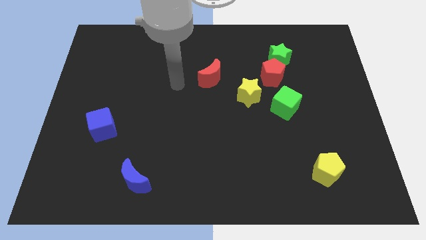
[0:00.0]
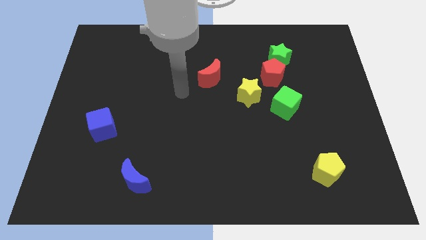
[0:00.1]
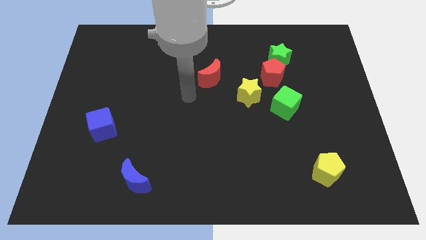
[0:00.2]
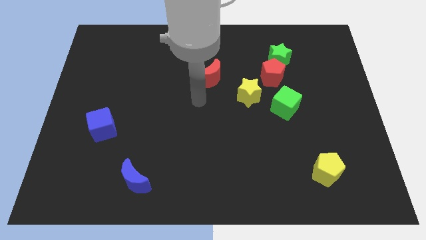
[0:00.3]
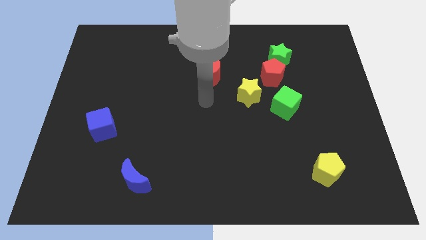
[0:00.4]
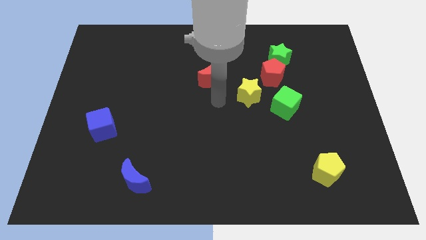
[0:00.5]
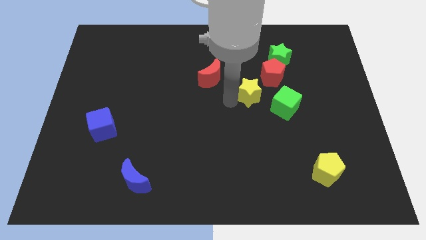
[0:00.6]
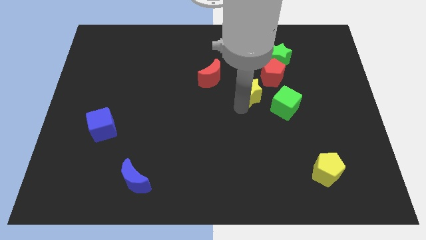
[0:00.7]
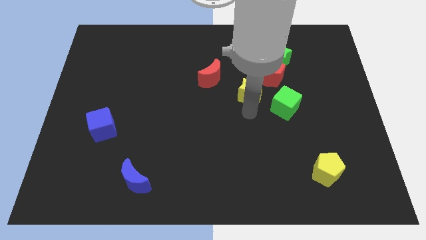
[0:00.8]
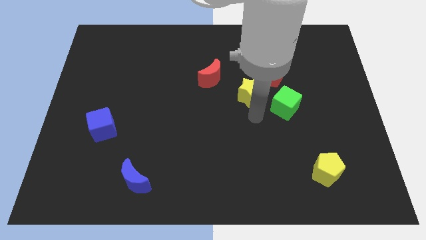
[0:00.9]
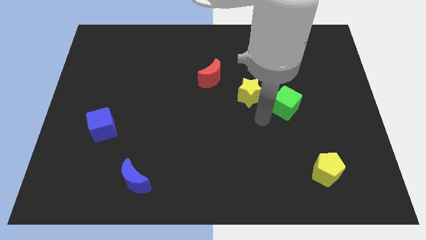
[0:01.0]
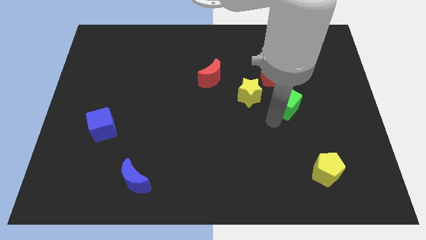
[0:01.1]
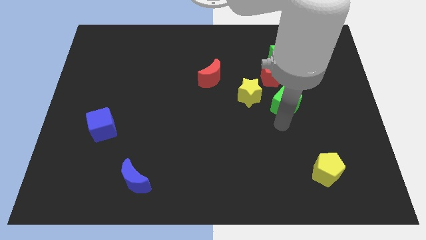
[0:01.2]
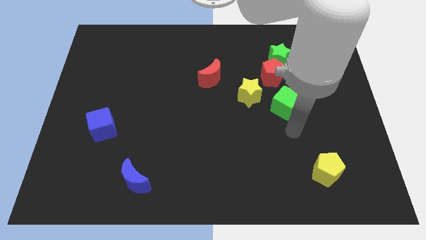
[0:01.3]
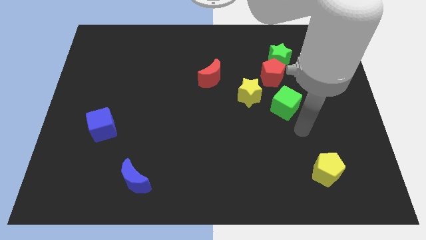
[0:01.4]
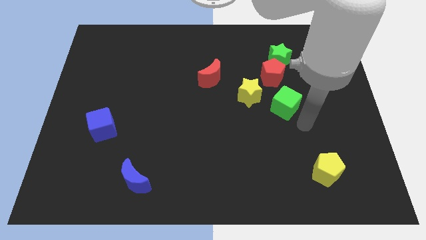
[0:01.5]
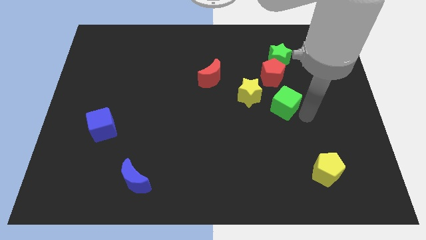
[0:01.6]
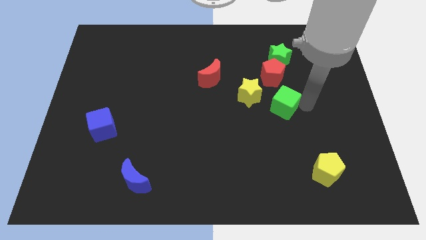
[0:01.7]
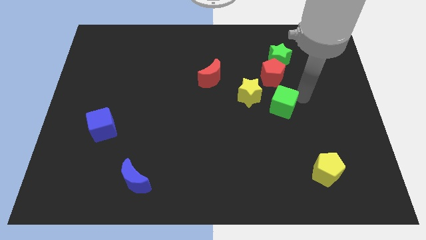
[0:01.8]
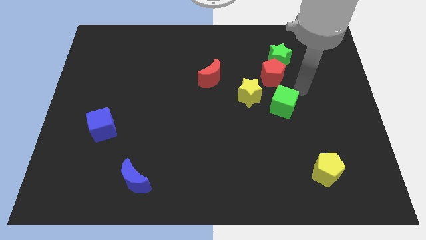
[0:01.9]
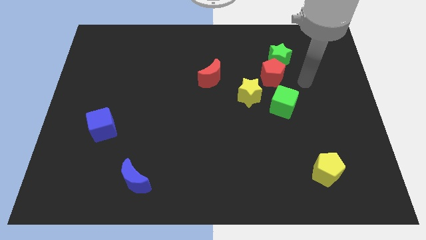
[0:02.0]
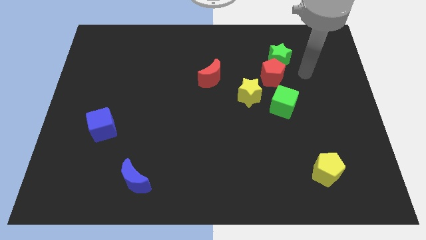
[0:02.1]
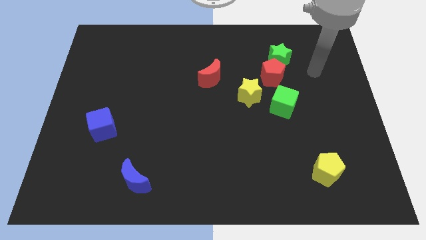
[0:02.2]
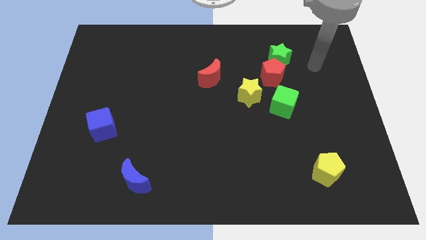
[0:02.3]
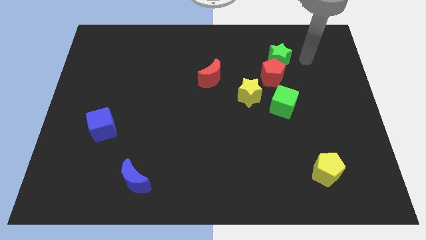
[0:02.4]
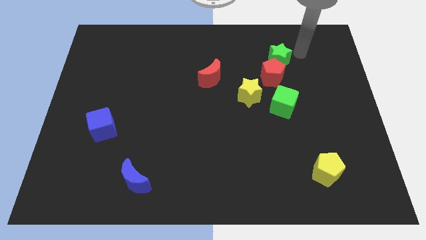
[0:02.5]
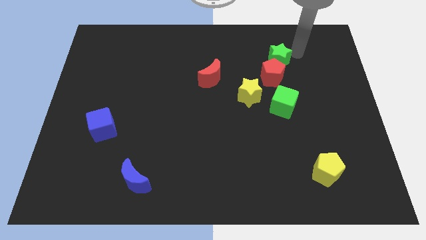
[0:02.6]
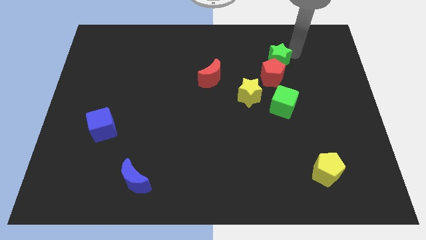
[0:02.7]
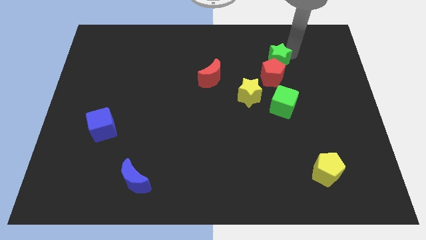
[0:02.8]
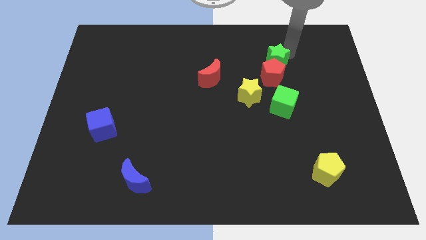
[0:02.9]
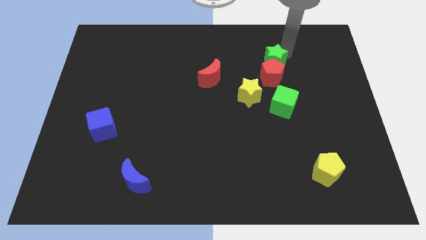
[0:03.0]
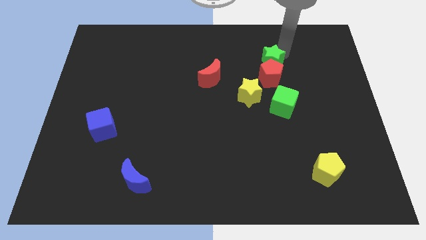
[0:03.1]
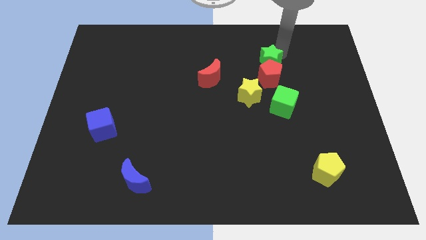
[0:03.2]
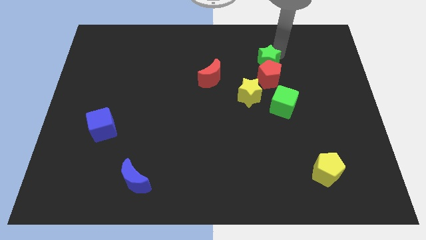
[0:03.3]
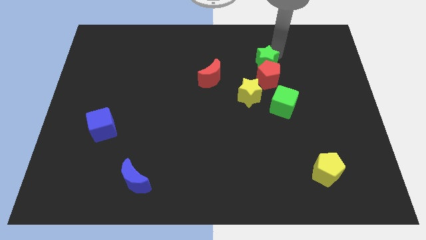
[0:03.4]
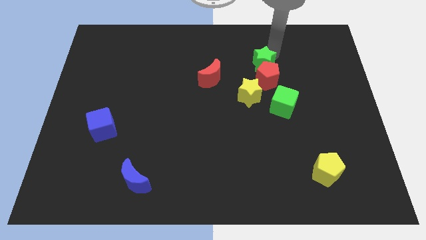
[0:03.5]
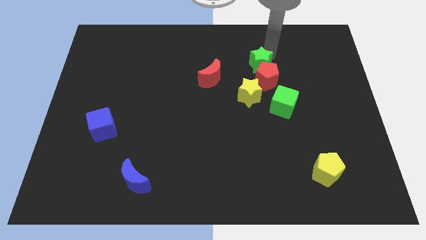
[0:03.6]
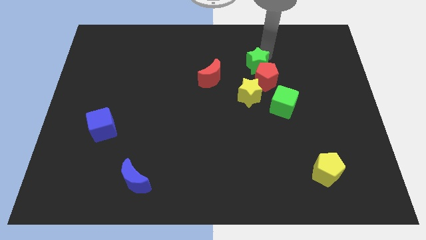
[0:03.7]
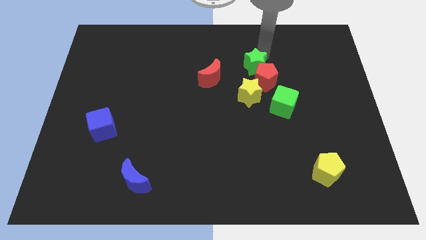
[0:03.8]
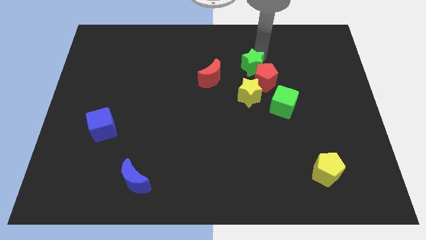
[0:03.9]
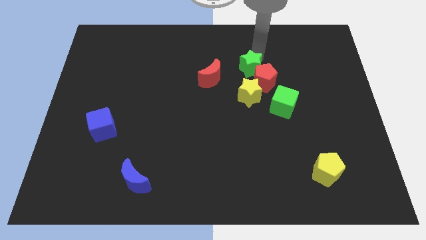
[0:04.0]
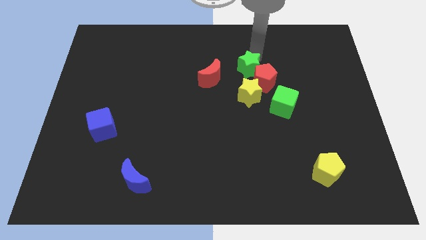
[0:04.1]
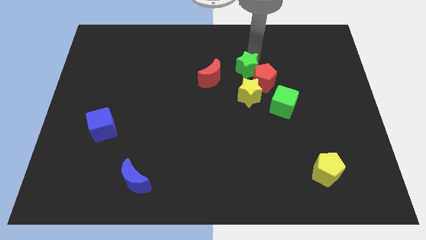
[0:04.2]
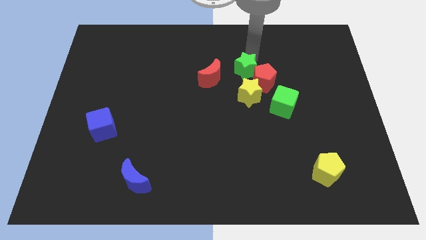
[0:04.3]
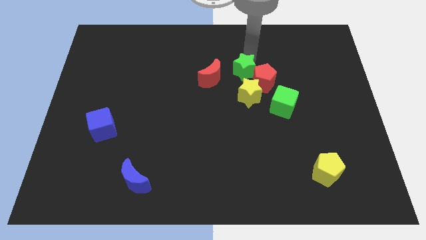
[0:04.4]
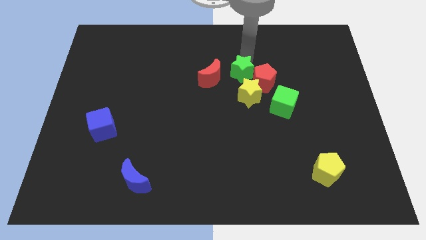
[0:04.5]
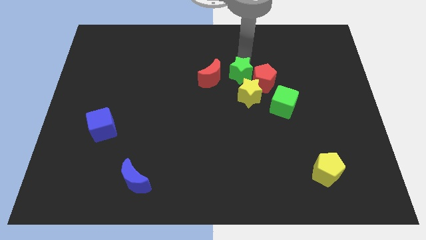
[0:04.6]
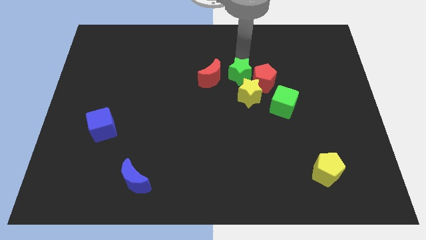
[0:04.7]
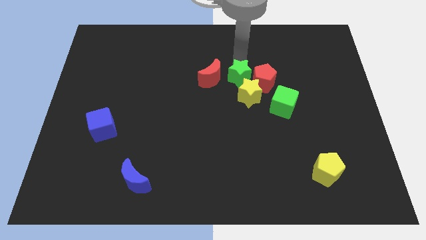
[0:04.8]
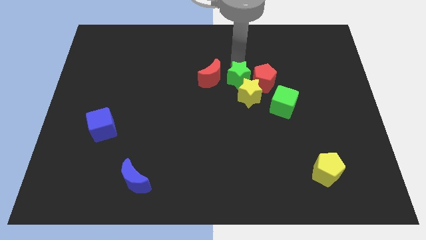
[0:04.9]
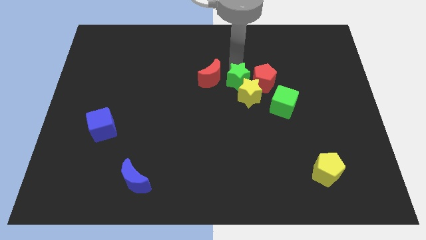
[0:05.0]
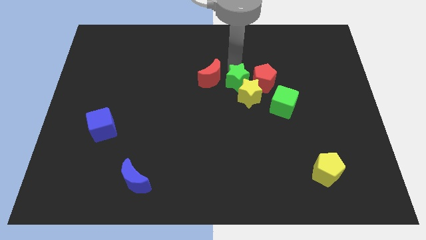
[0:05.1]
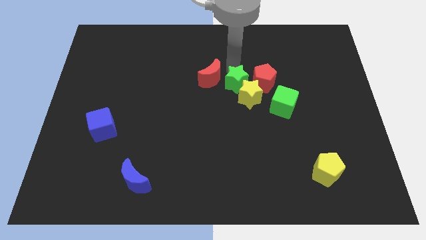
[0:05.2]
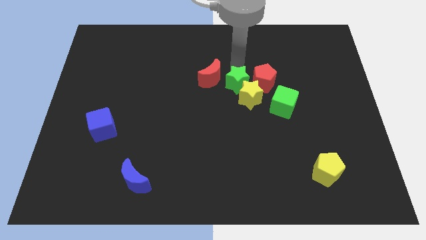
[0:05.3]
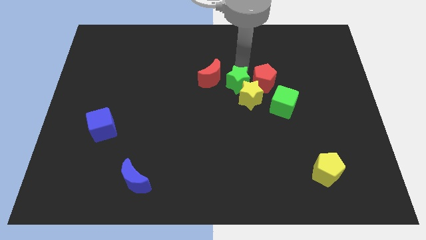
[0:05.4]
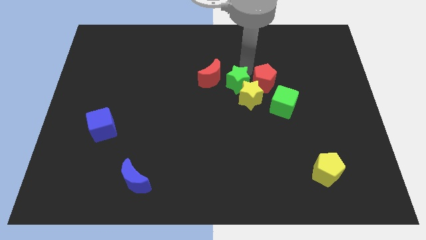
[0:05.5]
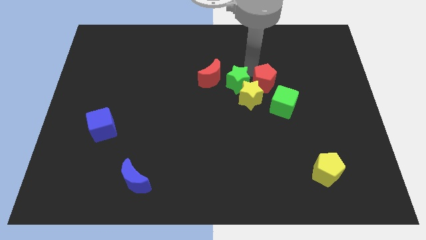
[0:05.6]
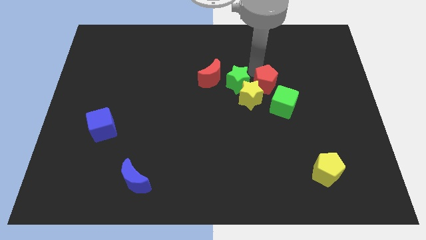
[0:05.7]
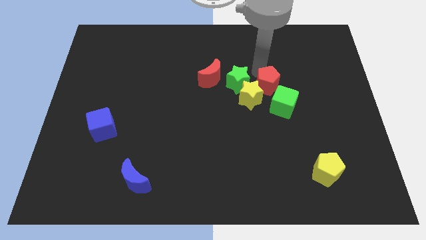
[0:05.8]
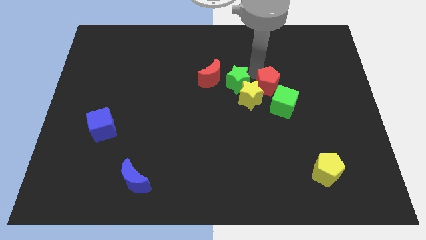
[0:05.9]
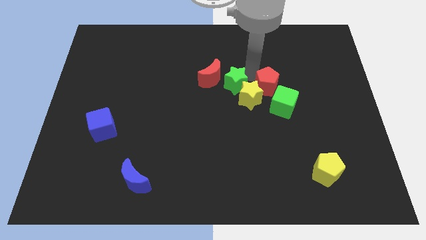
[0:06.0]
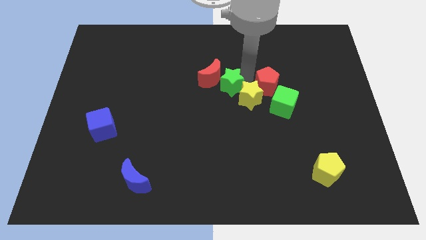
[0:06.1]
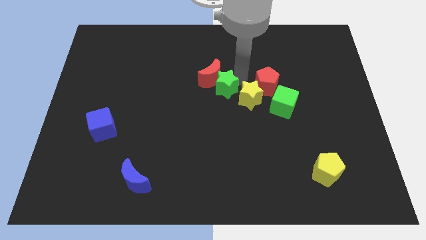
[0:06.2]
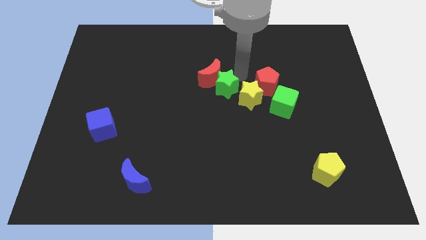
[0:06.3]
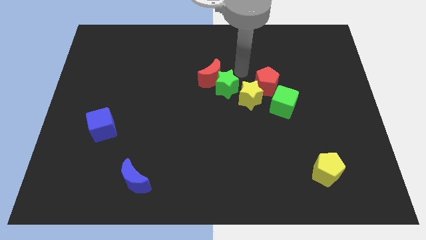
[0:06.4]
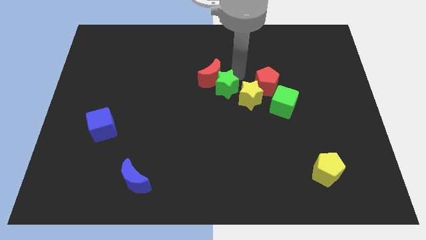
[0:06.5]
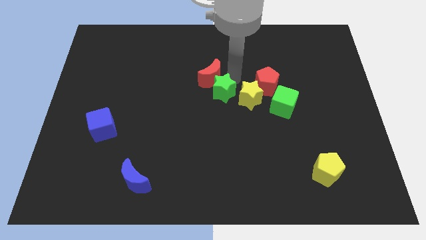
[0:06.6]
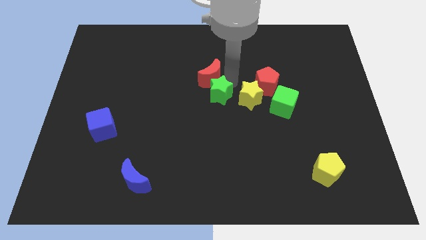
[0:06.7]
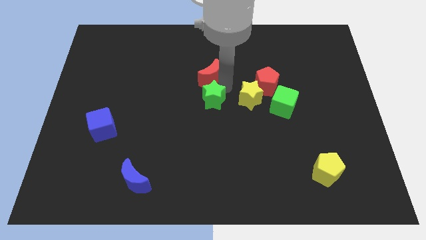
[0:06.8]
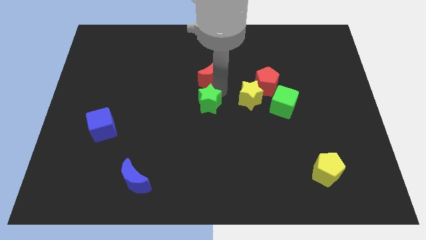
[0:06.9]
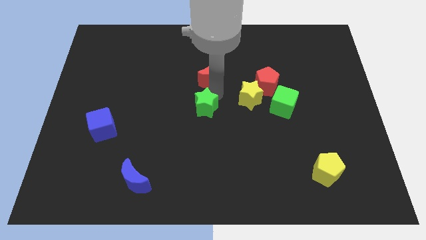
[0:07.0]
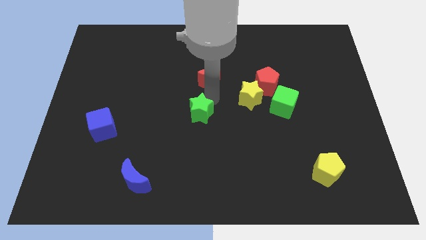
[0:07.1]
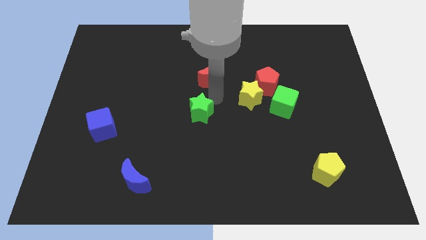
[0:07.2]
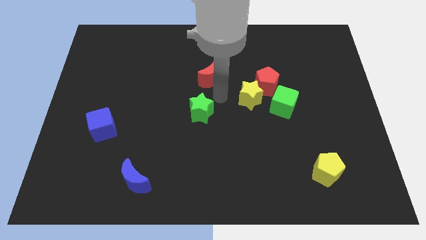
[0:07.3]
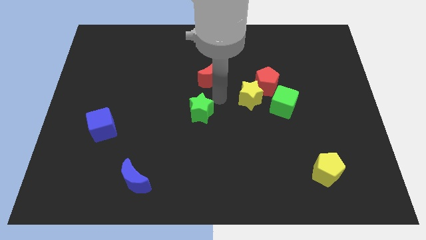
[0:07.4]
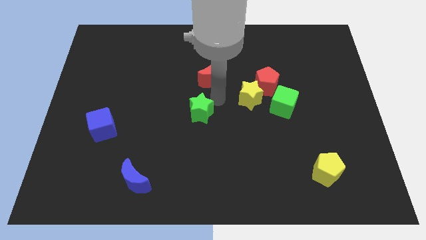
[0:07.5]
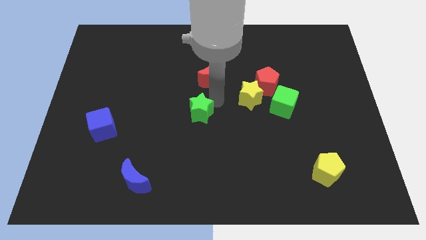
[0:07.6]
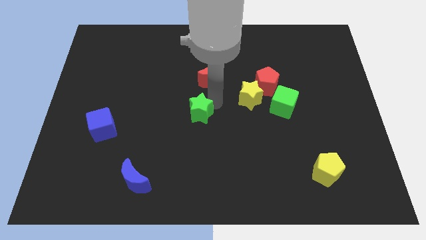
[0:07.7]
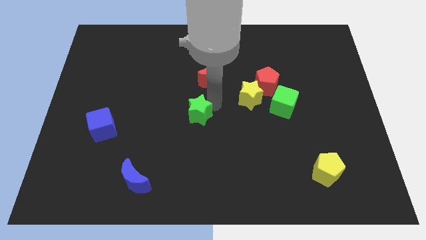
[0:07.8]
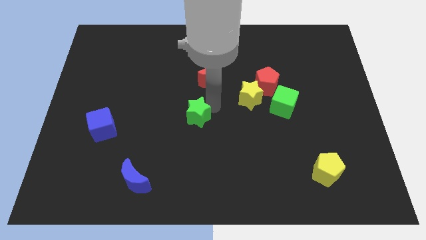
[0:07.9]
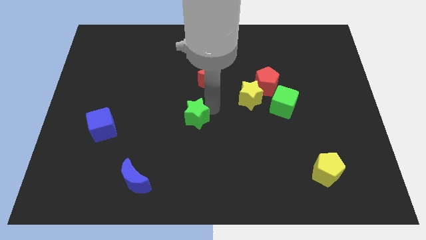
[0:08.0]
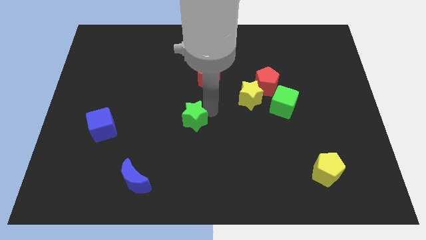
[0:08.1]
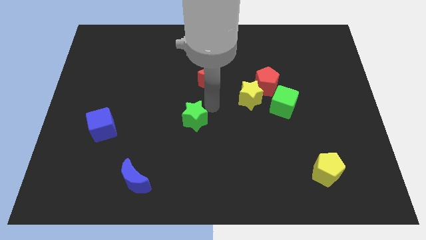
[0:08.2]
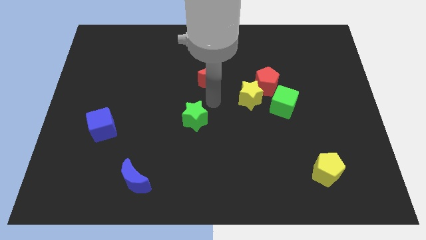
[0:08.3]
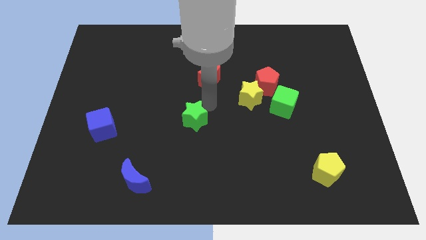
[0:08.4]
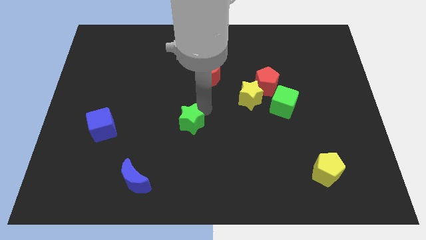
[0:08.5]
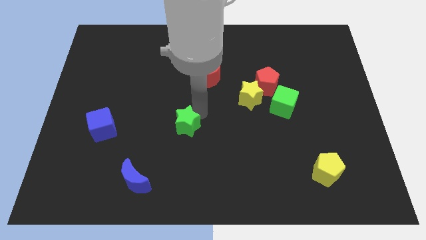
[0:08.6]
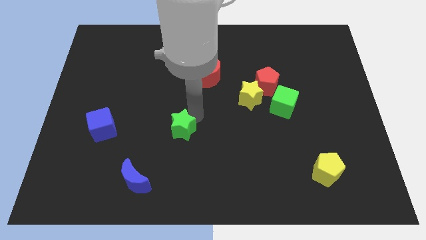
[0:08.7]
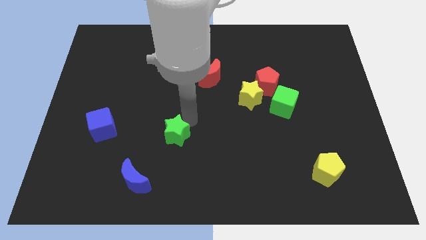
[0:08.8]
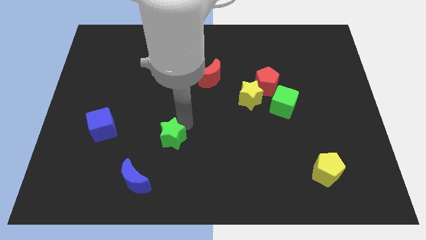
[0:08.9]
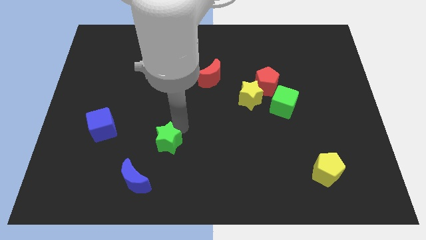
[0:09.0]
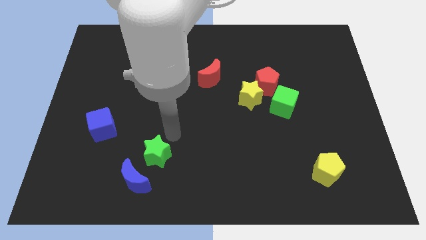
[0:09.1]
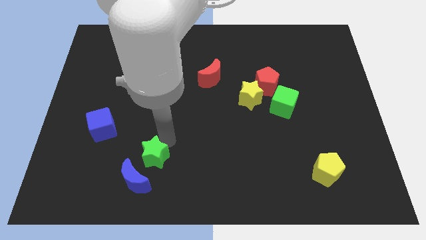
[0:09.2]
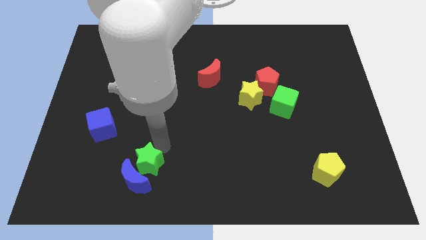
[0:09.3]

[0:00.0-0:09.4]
put the green star towards the blue moon
